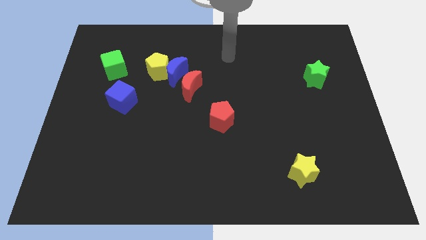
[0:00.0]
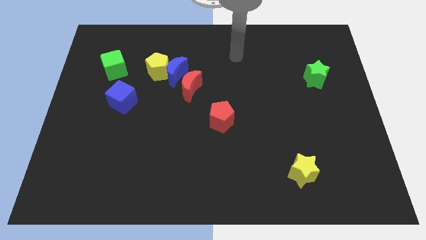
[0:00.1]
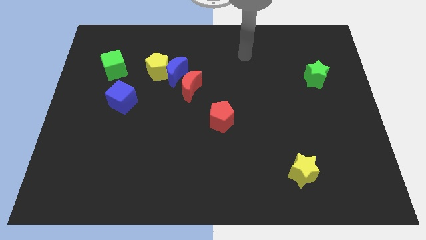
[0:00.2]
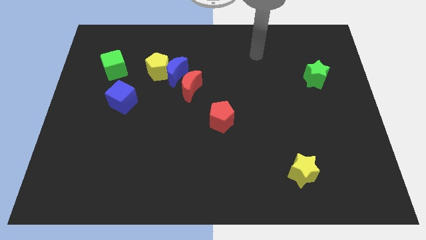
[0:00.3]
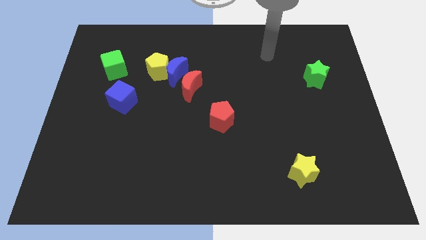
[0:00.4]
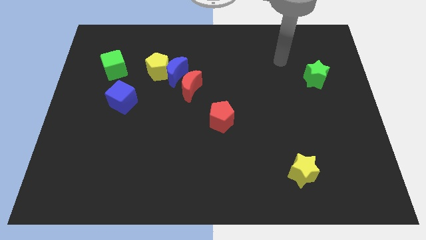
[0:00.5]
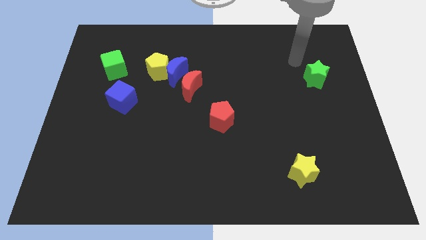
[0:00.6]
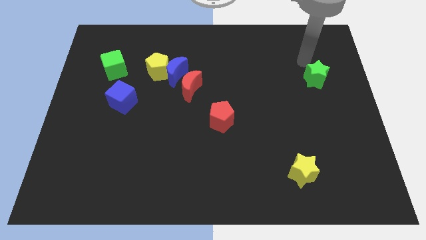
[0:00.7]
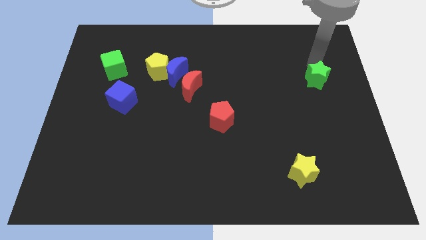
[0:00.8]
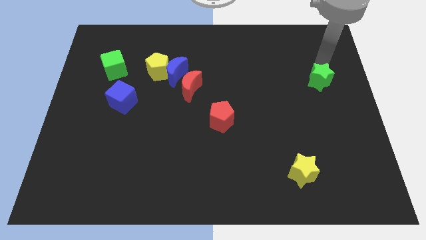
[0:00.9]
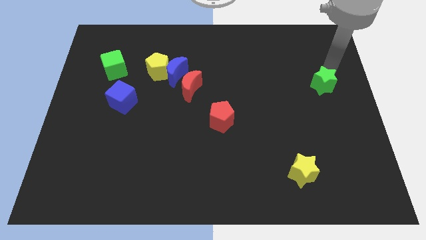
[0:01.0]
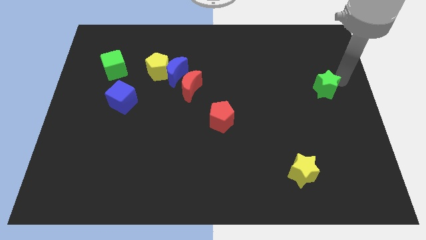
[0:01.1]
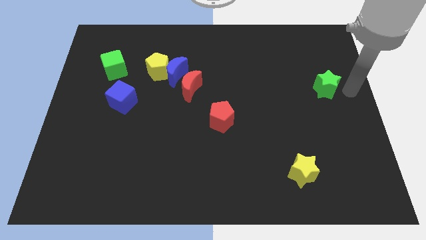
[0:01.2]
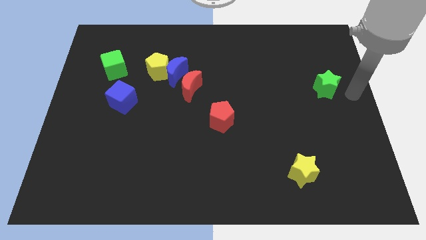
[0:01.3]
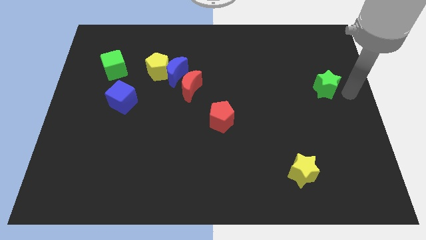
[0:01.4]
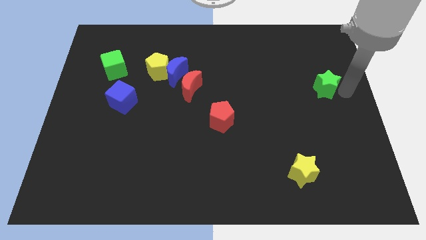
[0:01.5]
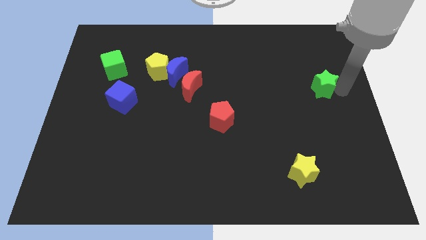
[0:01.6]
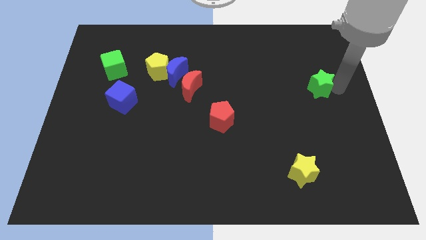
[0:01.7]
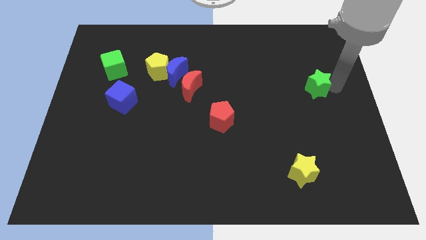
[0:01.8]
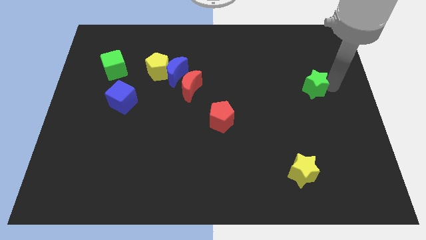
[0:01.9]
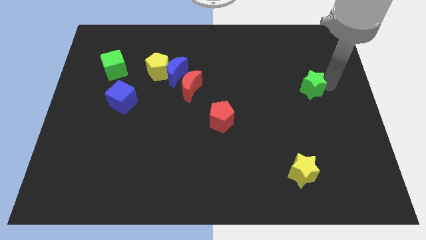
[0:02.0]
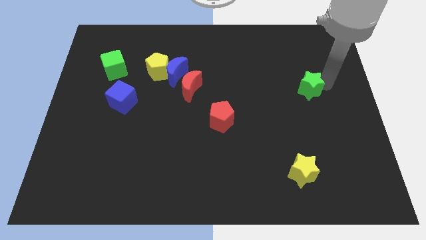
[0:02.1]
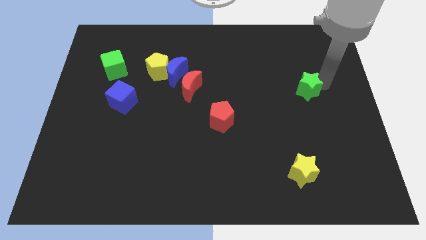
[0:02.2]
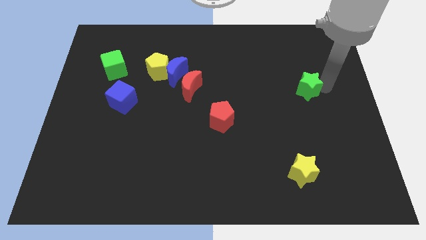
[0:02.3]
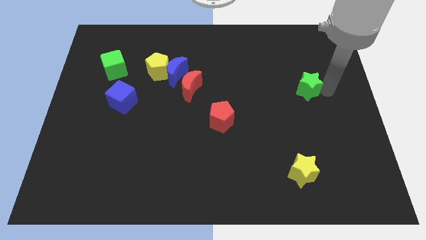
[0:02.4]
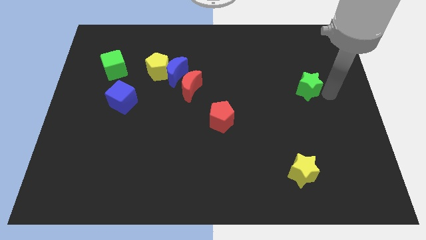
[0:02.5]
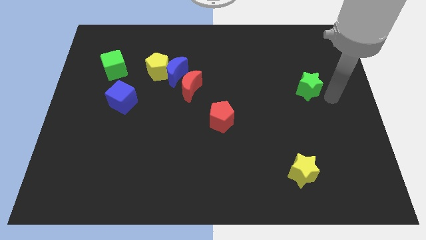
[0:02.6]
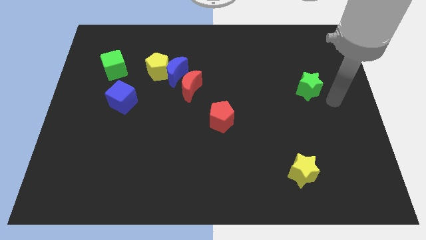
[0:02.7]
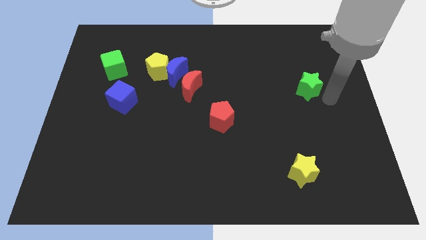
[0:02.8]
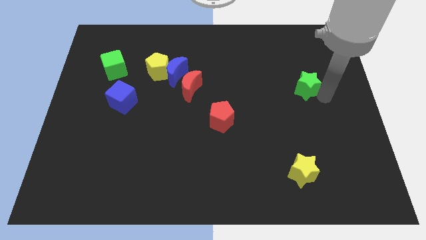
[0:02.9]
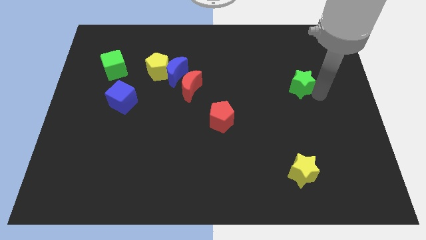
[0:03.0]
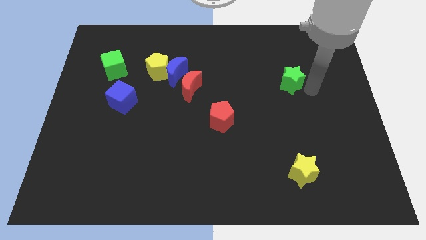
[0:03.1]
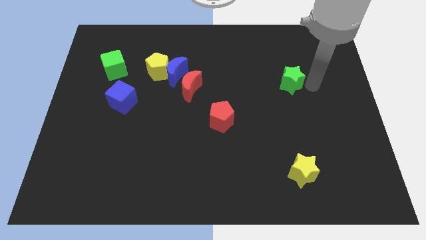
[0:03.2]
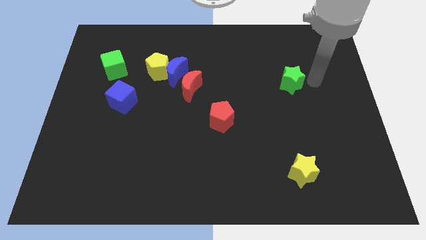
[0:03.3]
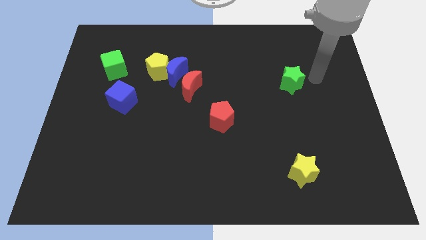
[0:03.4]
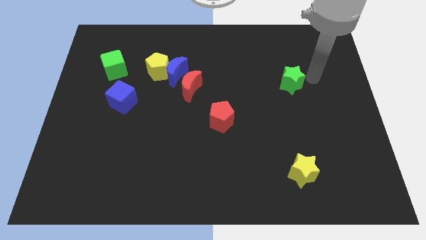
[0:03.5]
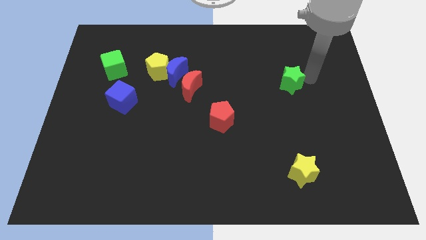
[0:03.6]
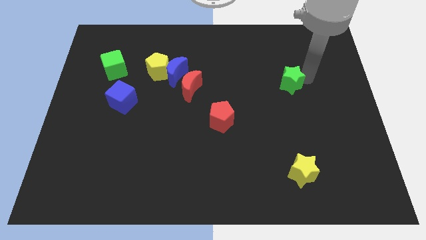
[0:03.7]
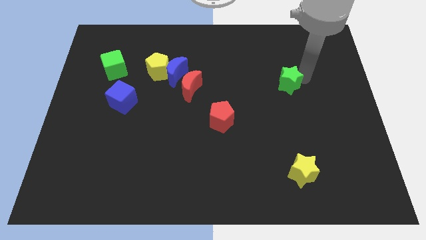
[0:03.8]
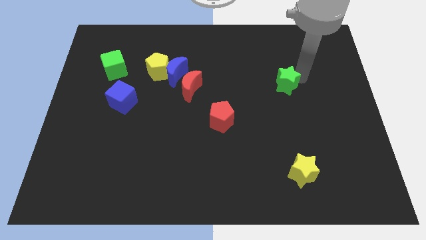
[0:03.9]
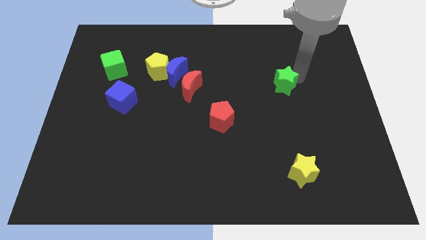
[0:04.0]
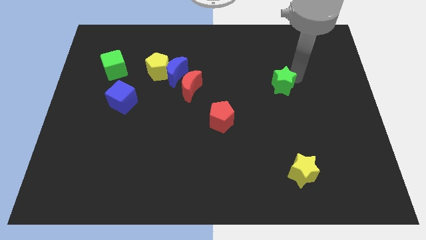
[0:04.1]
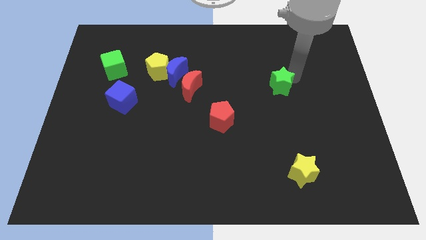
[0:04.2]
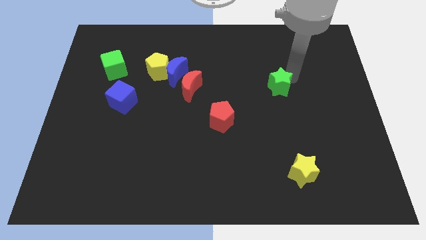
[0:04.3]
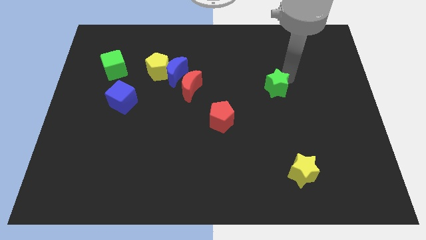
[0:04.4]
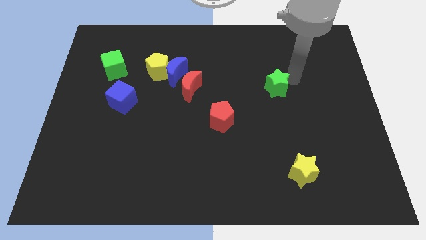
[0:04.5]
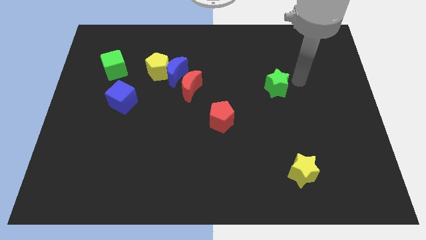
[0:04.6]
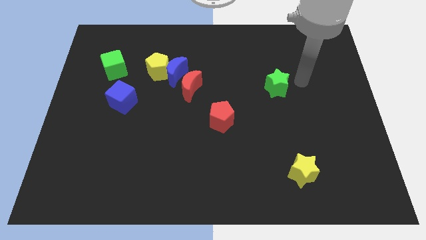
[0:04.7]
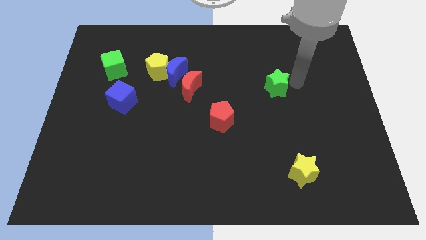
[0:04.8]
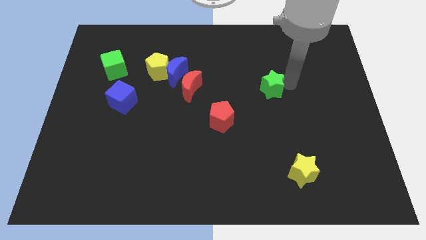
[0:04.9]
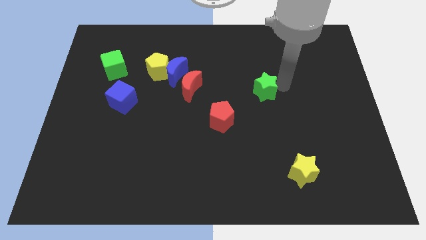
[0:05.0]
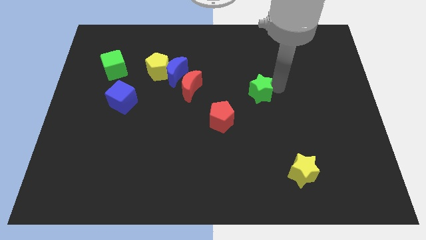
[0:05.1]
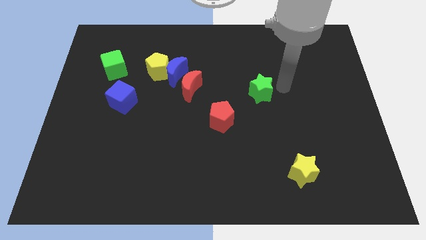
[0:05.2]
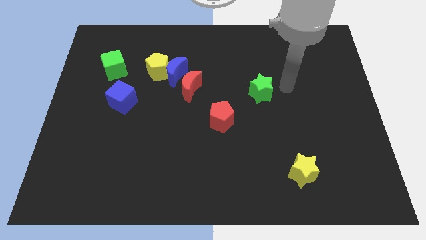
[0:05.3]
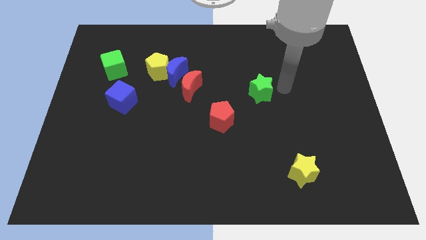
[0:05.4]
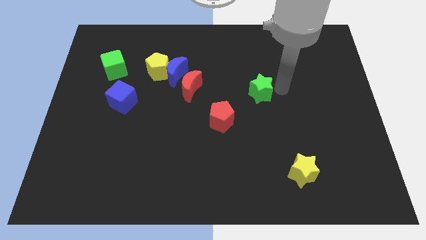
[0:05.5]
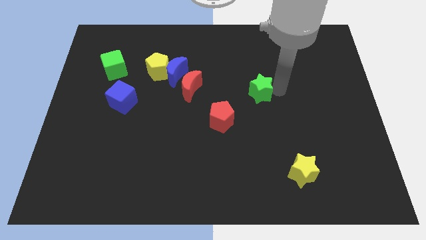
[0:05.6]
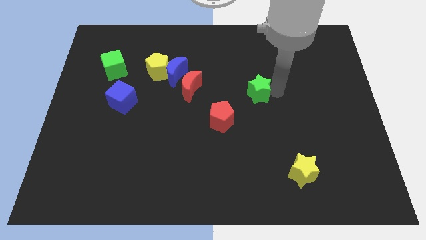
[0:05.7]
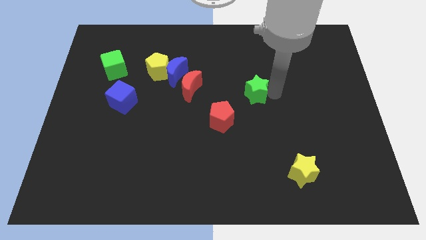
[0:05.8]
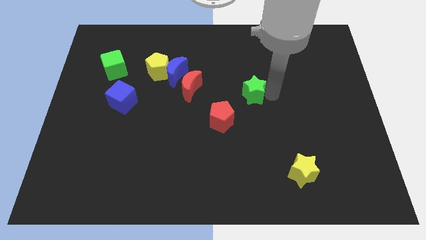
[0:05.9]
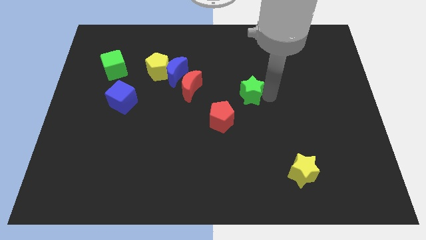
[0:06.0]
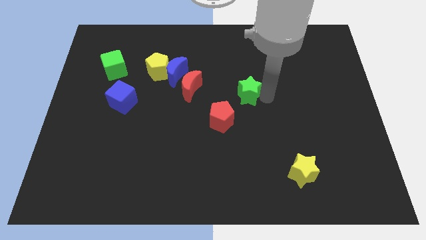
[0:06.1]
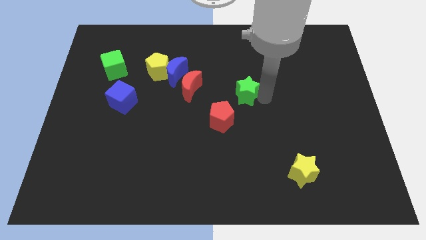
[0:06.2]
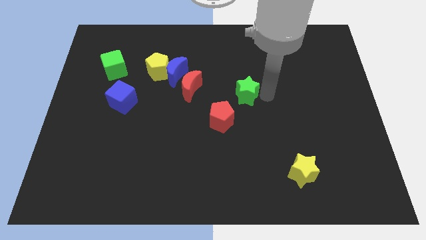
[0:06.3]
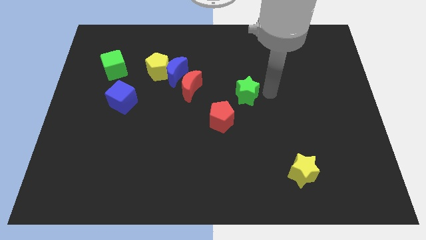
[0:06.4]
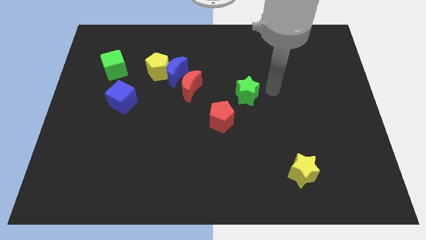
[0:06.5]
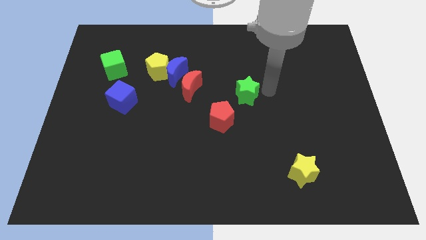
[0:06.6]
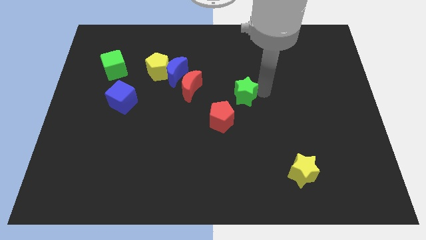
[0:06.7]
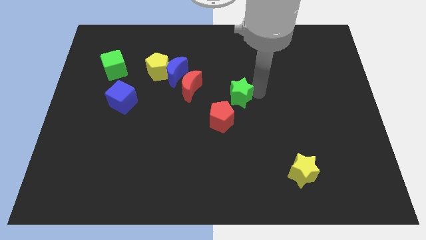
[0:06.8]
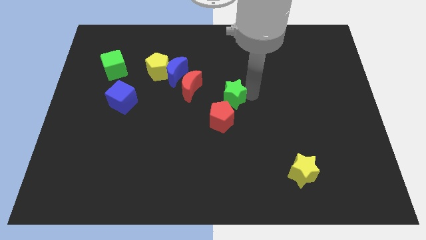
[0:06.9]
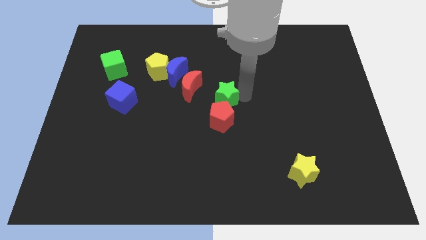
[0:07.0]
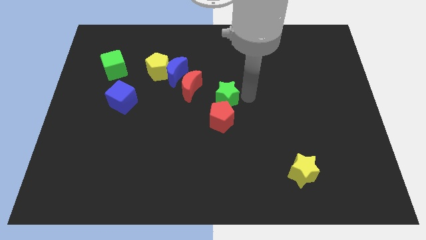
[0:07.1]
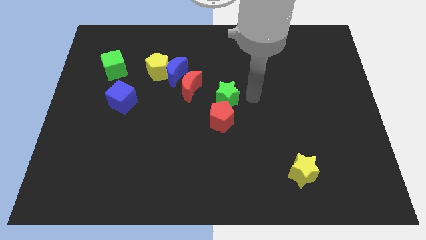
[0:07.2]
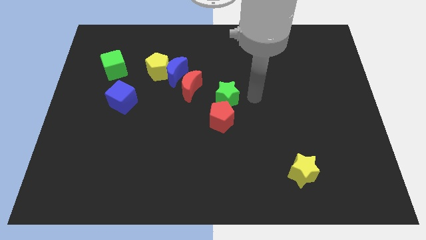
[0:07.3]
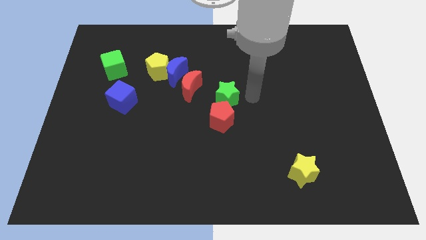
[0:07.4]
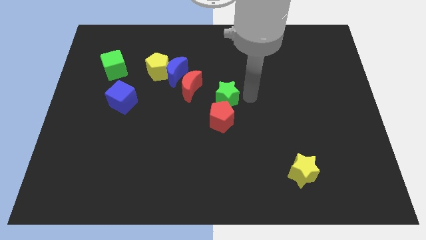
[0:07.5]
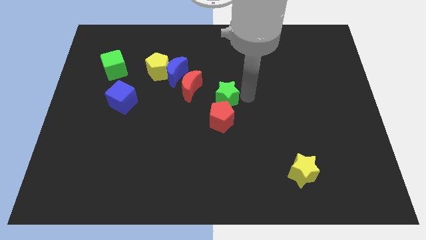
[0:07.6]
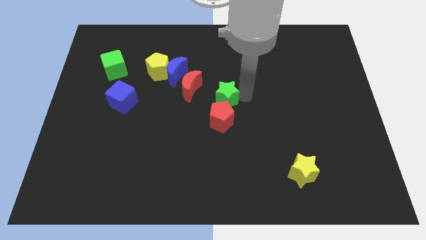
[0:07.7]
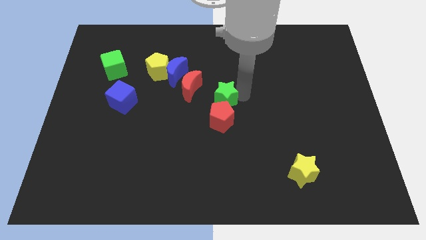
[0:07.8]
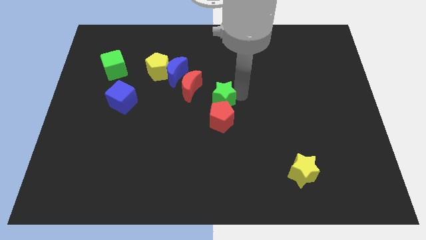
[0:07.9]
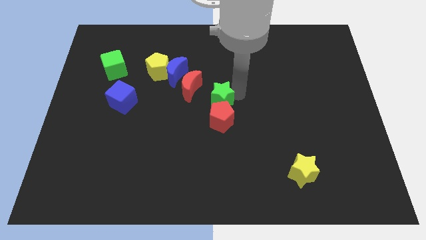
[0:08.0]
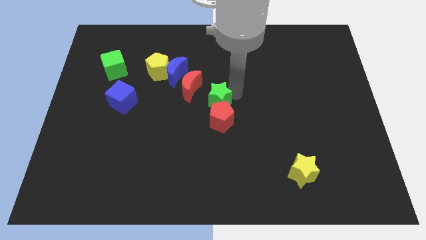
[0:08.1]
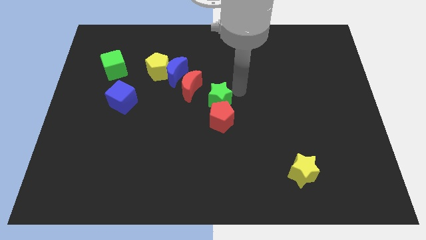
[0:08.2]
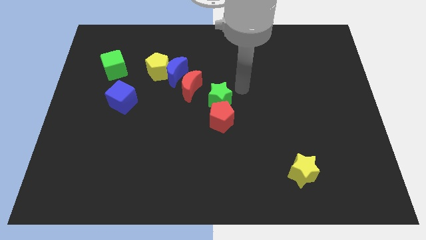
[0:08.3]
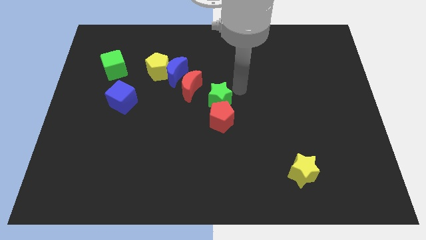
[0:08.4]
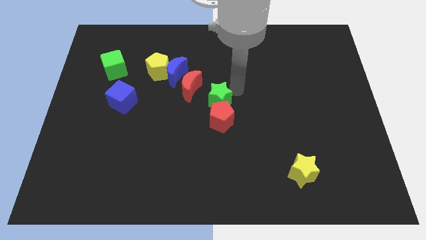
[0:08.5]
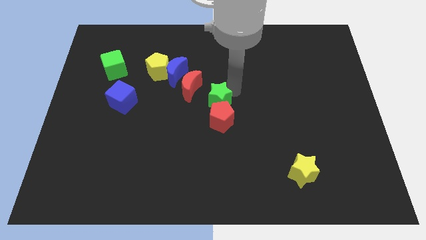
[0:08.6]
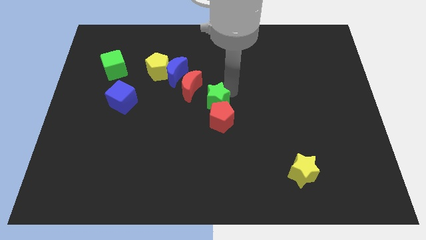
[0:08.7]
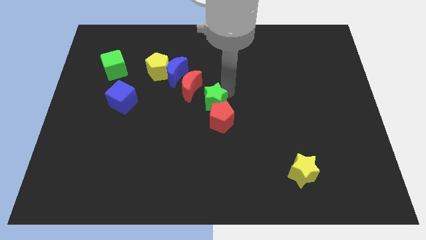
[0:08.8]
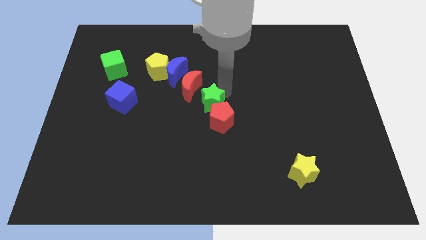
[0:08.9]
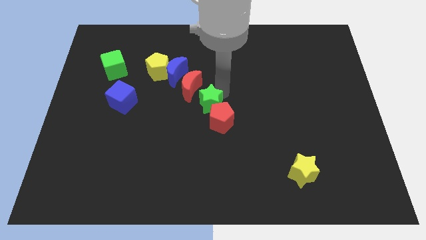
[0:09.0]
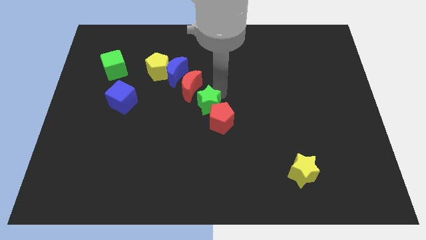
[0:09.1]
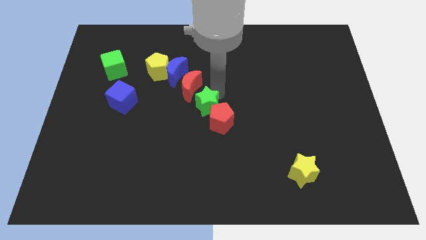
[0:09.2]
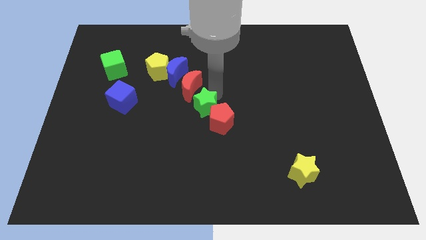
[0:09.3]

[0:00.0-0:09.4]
slide the green star left of the red pentagon
